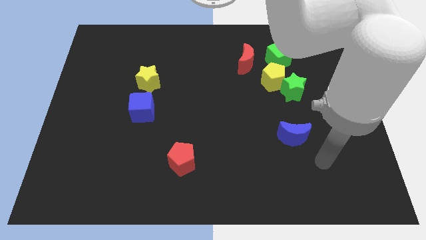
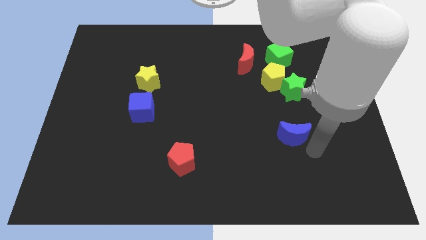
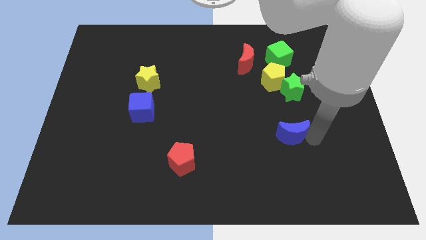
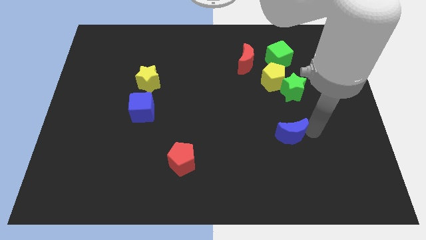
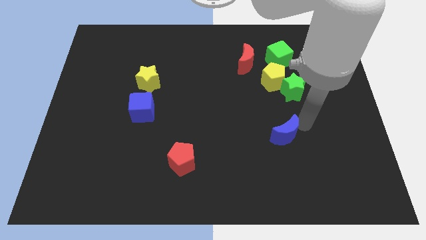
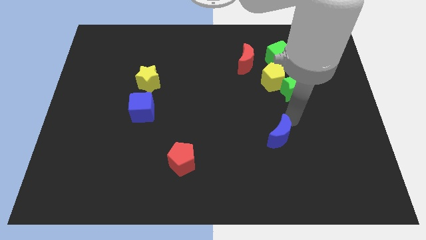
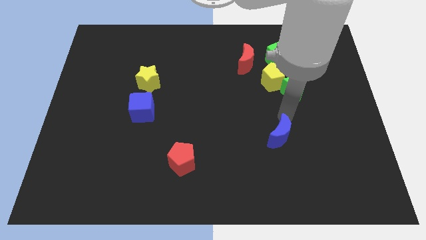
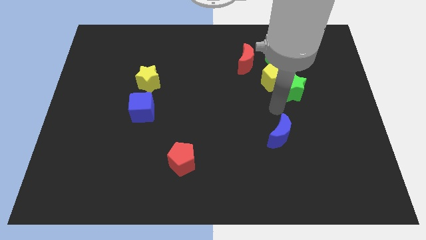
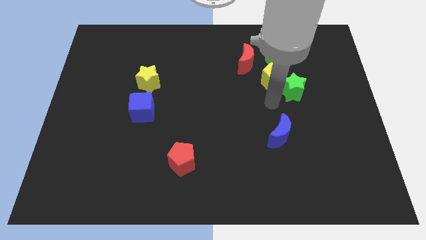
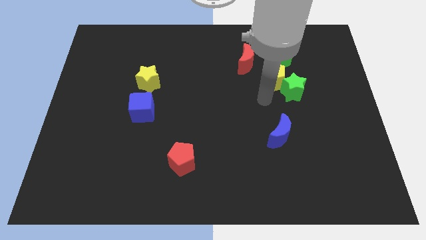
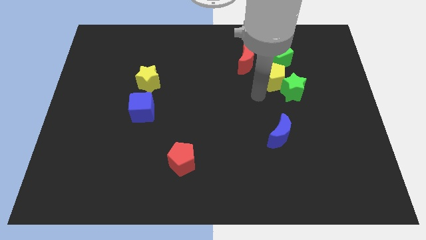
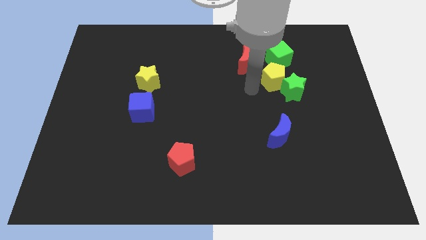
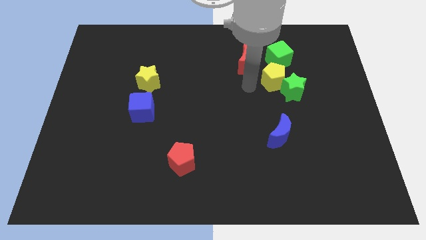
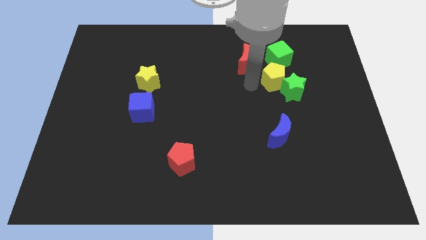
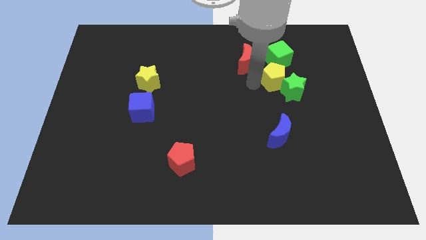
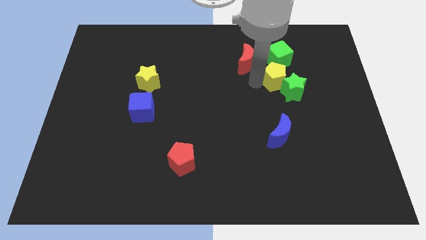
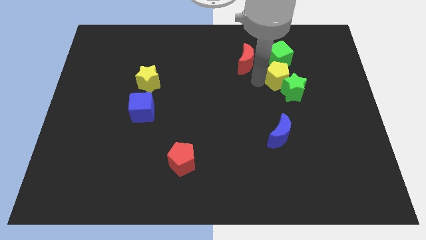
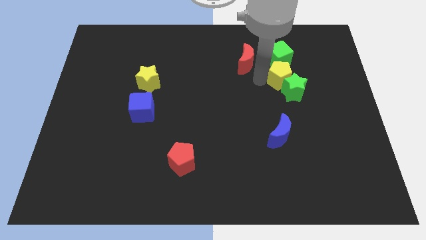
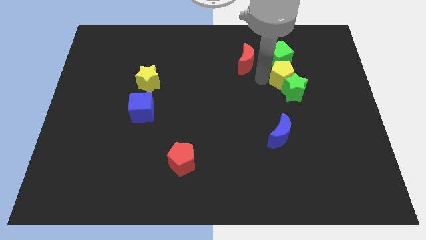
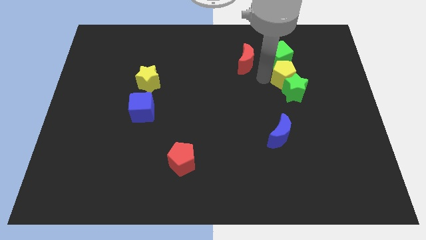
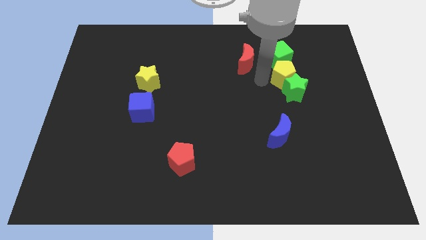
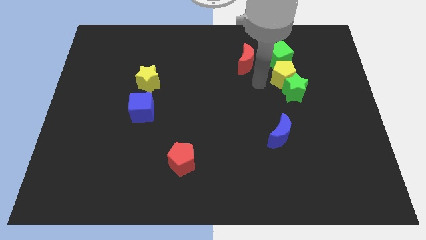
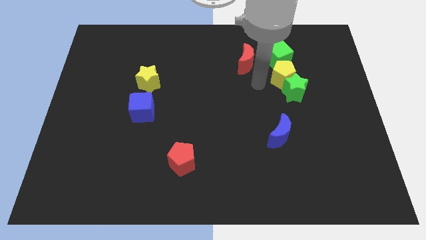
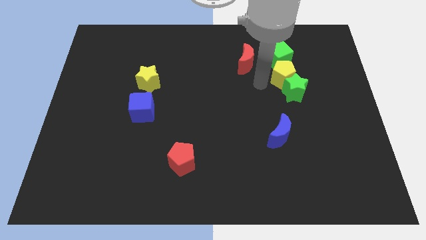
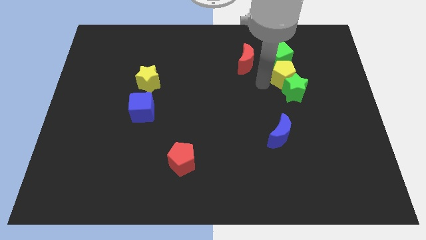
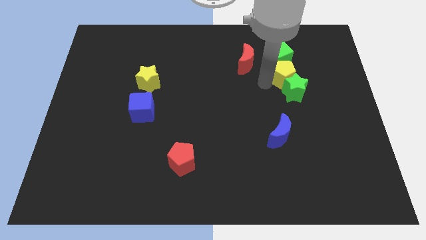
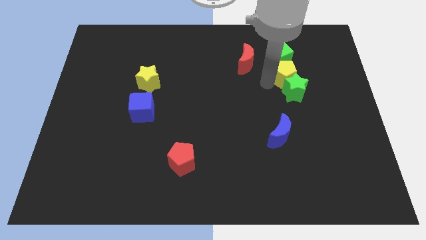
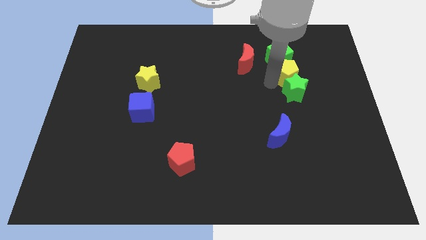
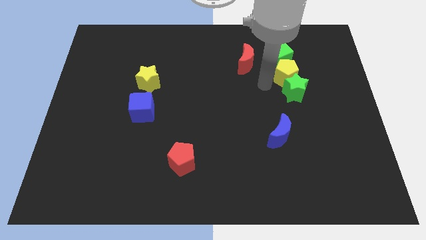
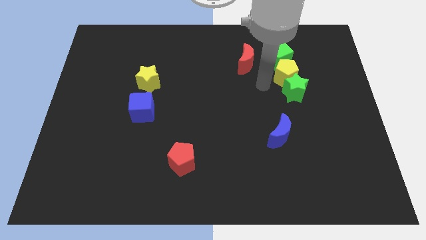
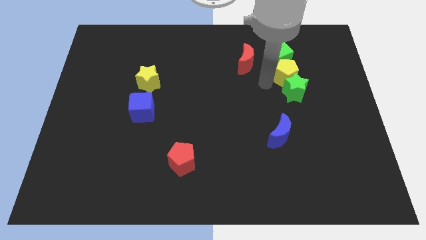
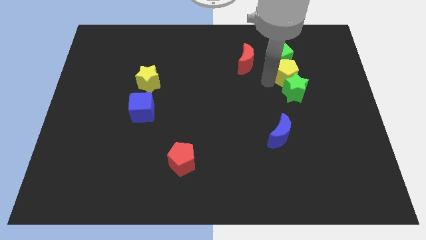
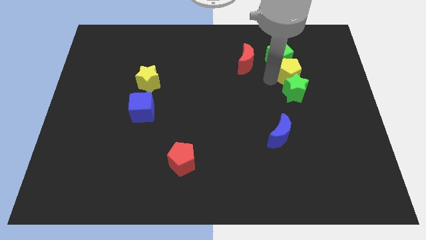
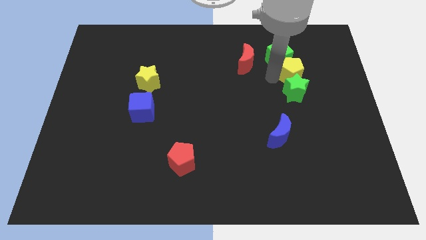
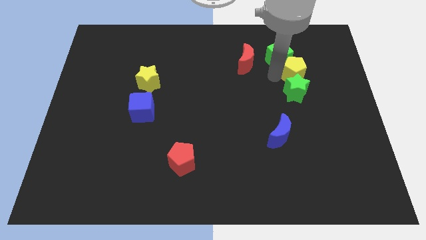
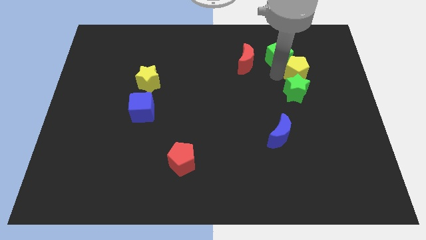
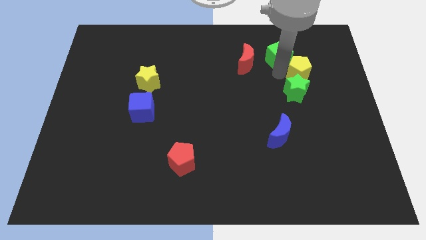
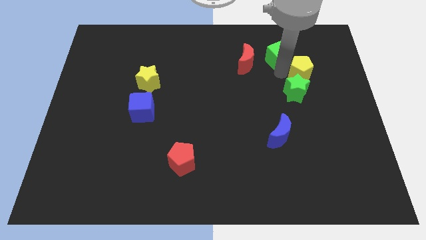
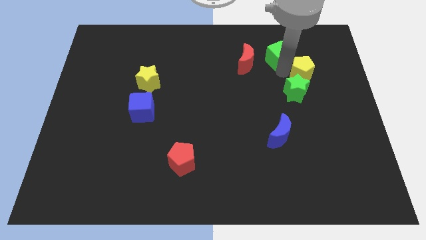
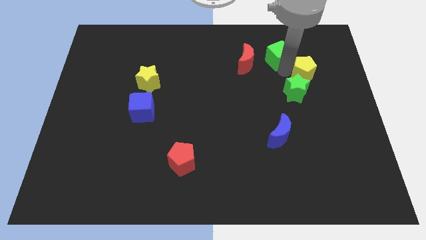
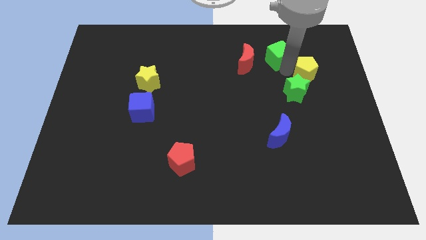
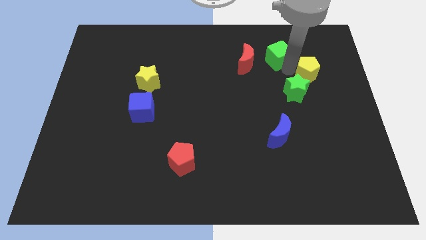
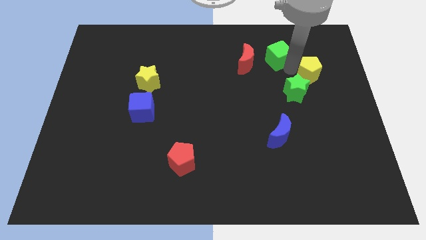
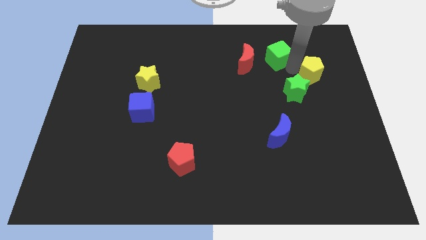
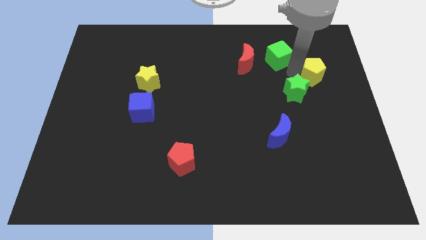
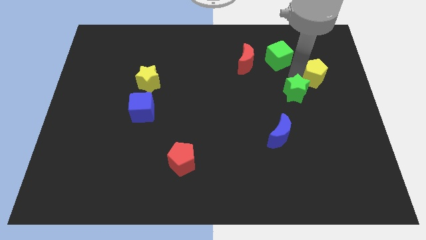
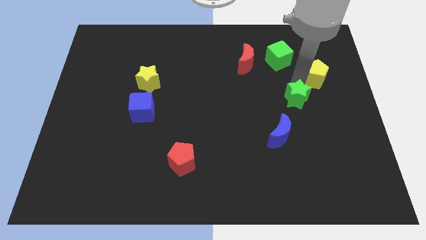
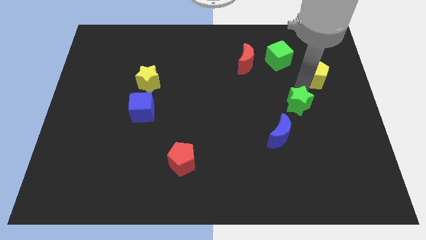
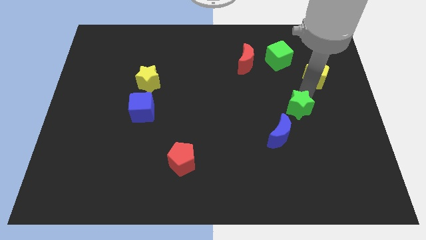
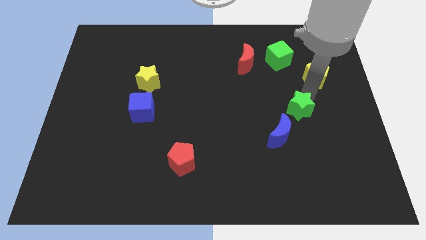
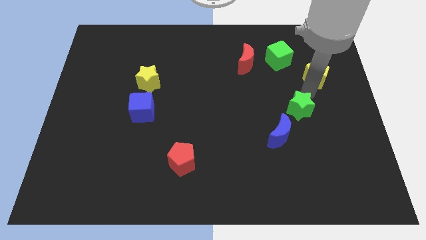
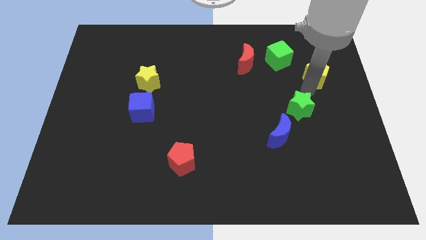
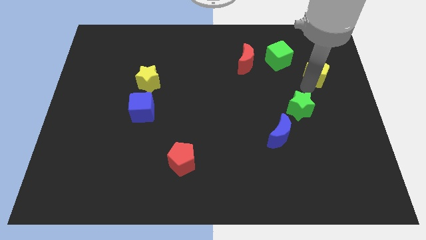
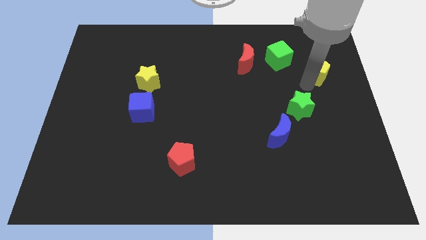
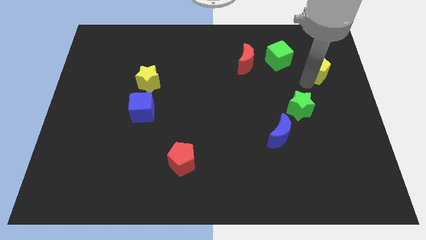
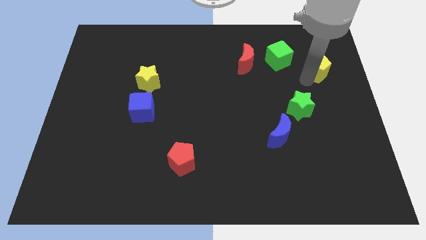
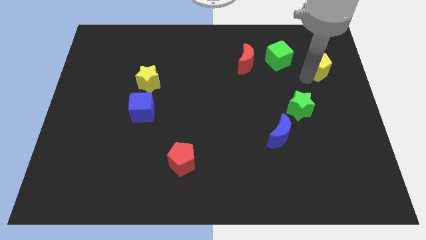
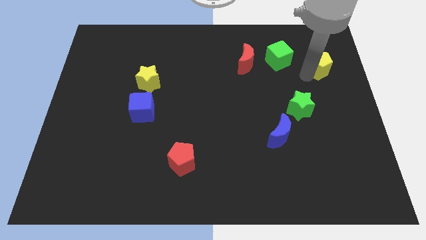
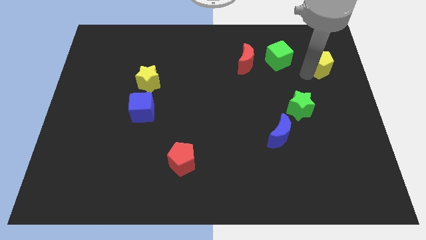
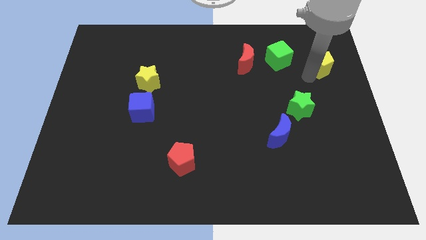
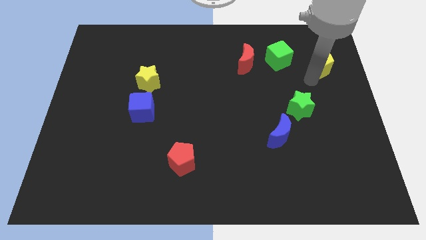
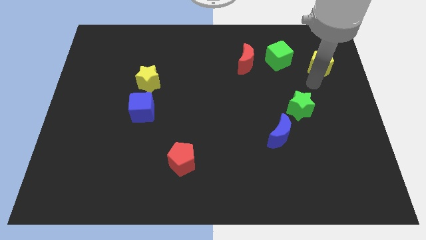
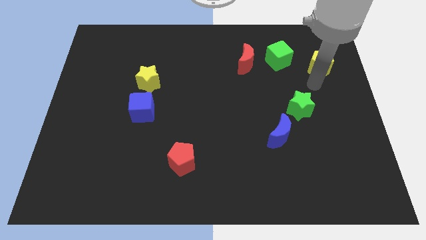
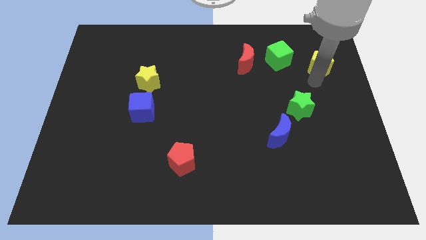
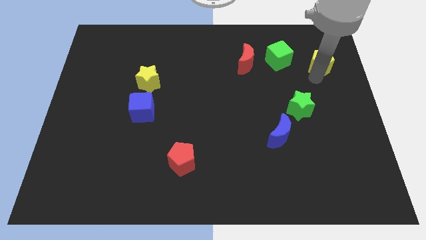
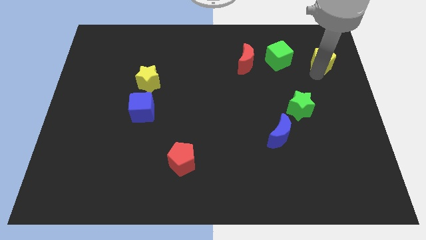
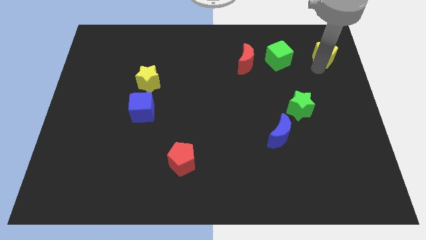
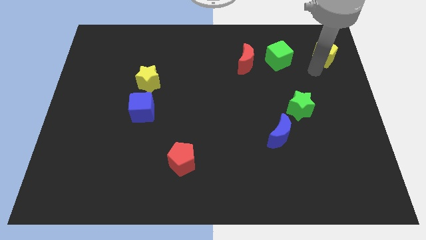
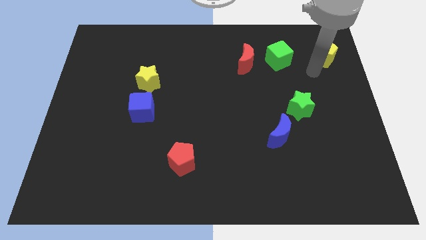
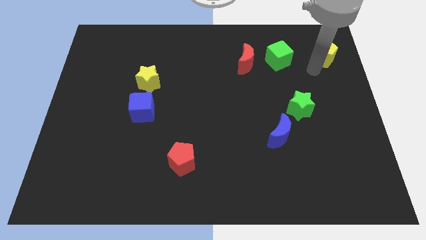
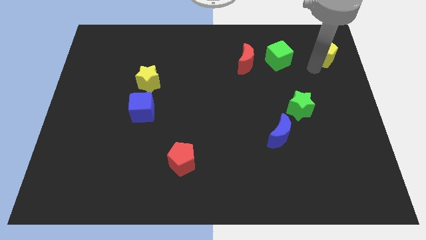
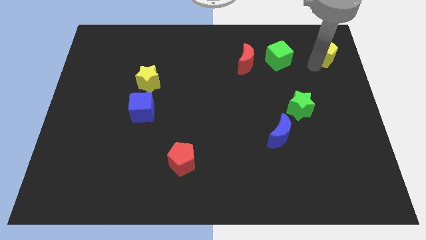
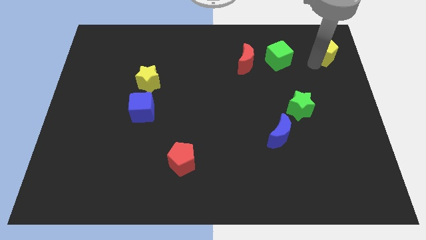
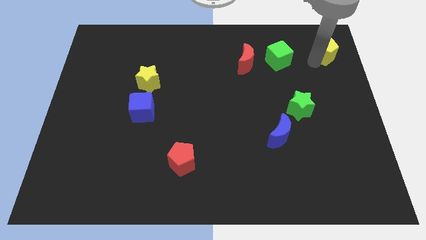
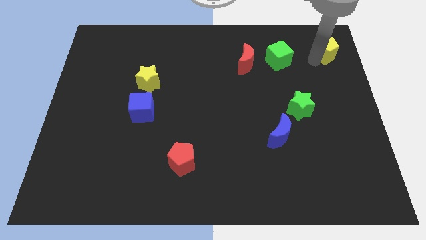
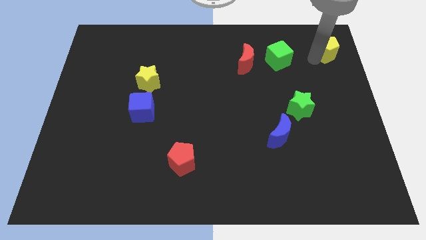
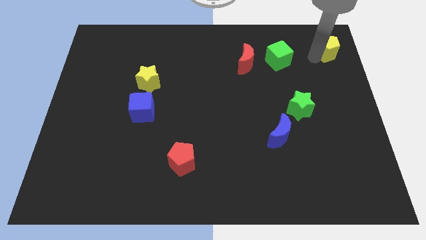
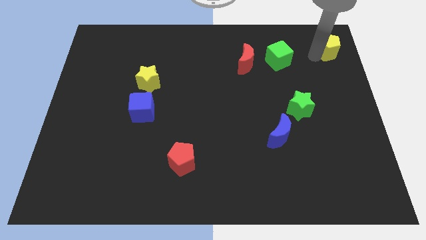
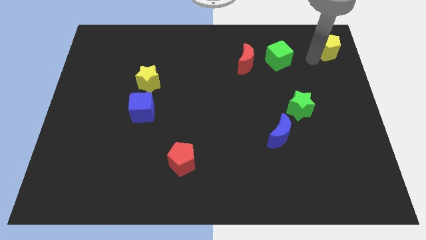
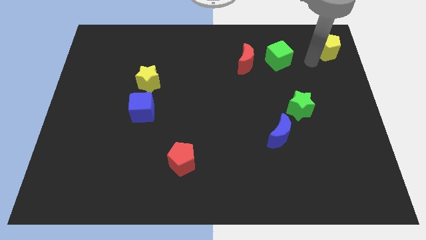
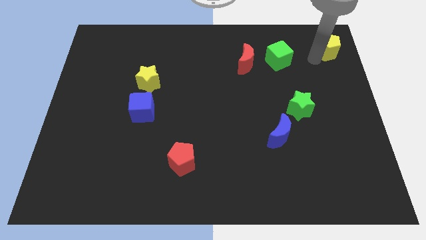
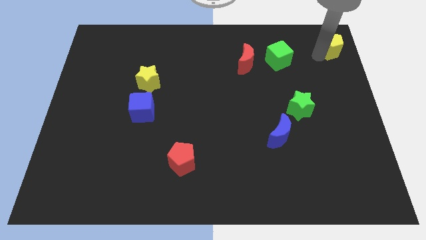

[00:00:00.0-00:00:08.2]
put the yellow pentagon to the top right
